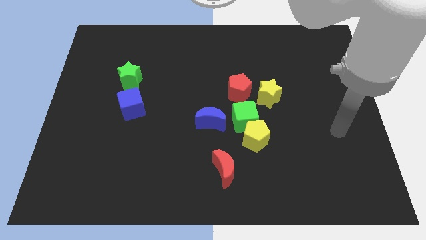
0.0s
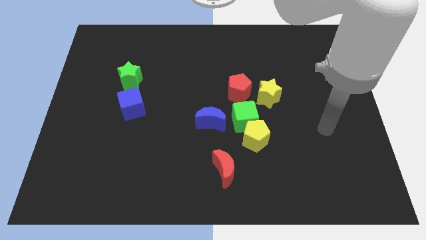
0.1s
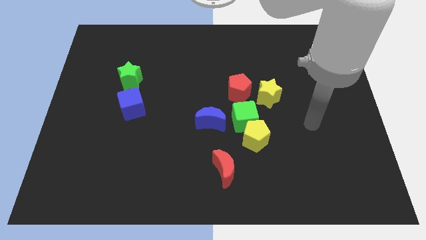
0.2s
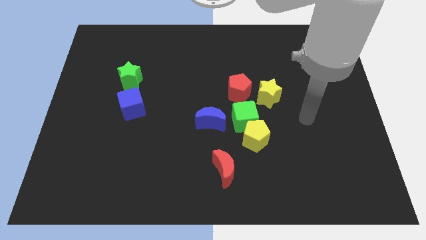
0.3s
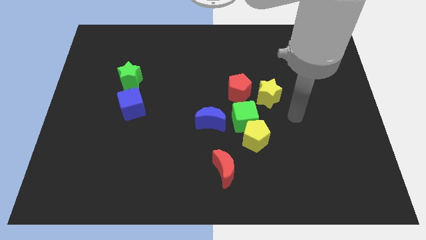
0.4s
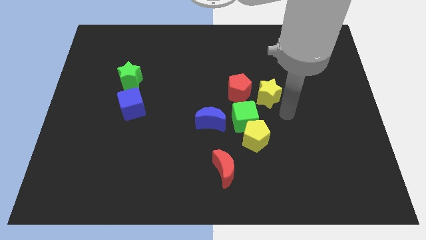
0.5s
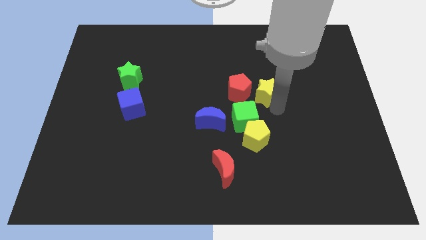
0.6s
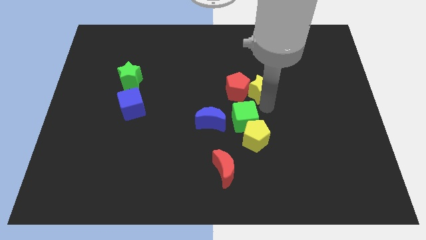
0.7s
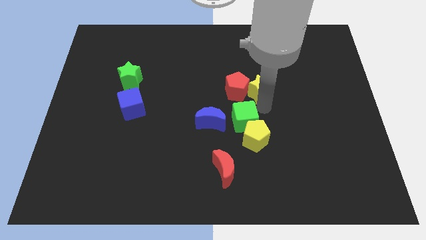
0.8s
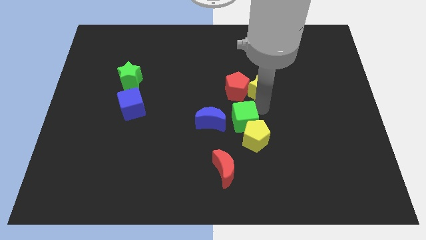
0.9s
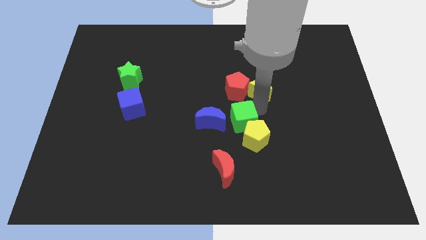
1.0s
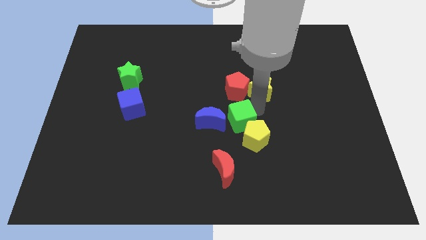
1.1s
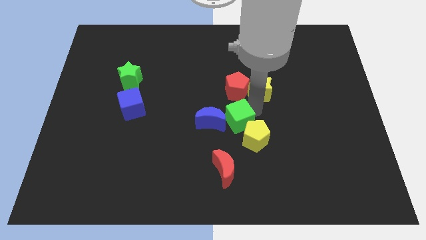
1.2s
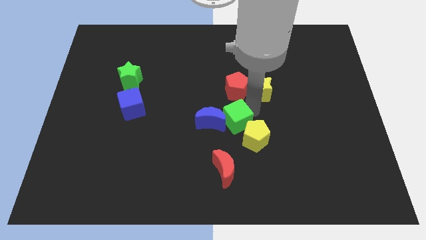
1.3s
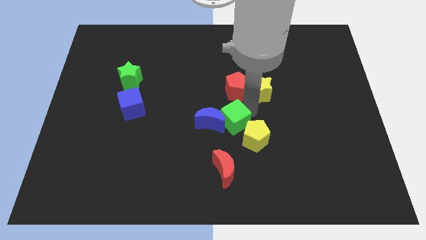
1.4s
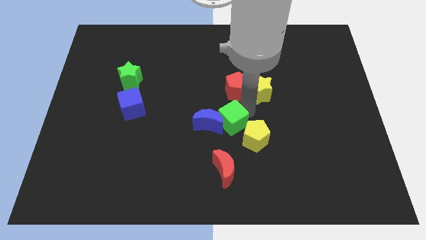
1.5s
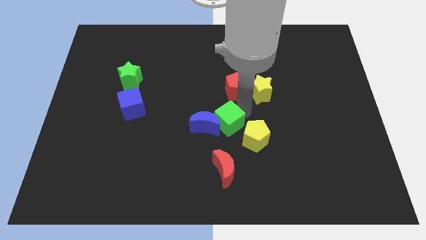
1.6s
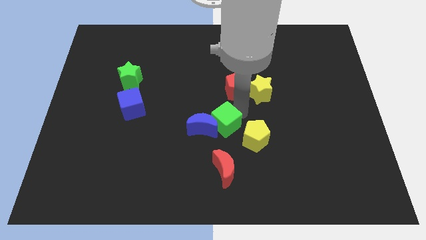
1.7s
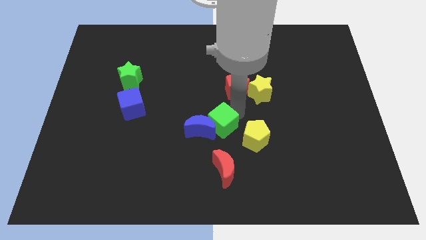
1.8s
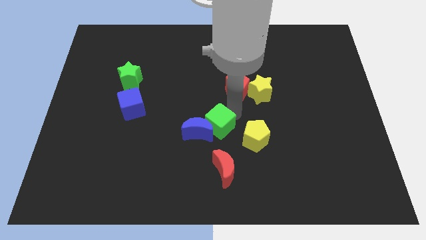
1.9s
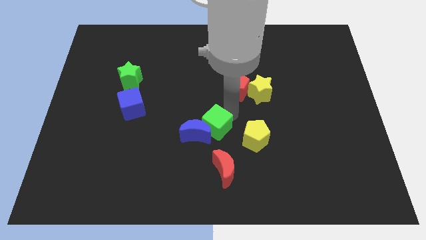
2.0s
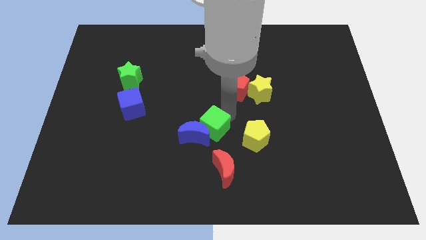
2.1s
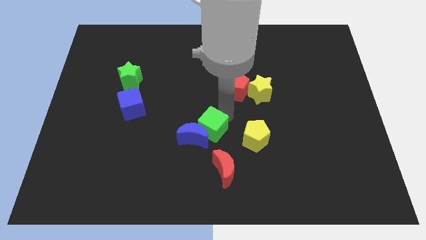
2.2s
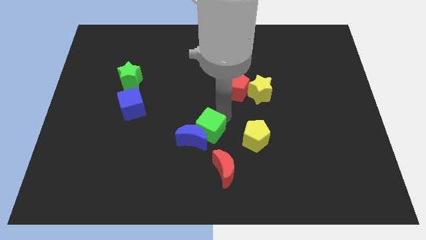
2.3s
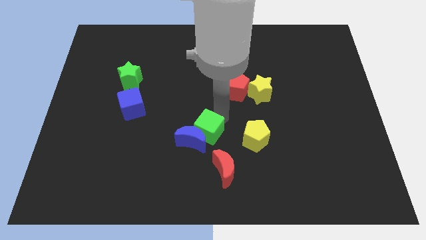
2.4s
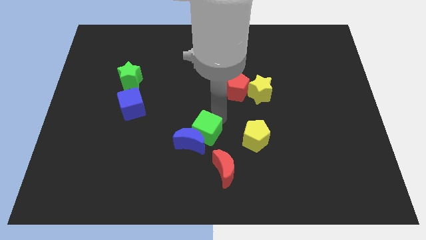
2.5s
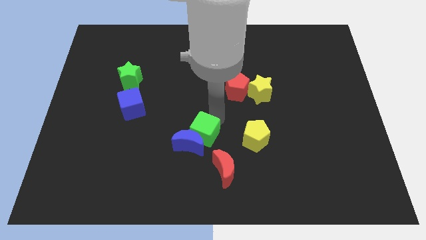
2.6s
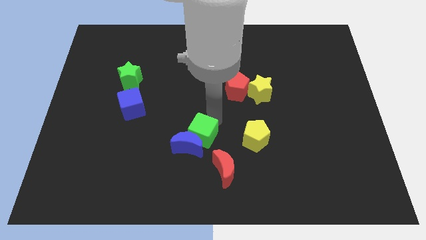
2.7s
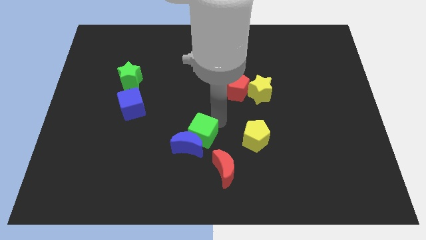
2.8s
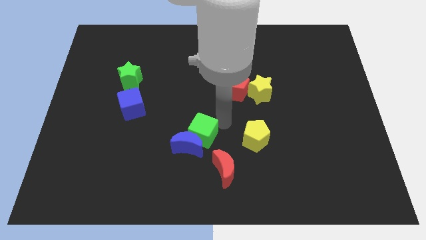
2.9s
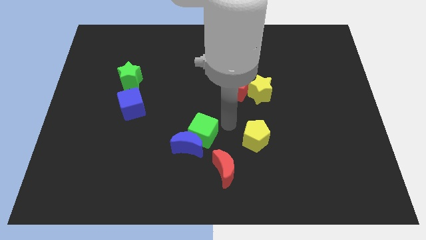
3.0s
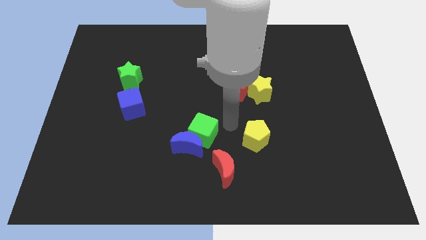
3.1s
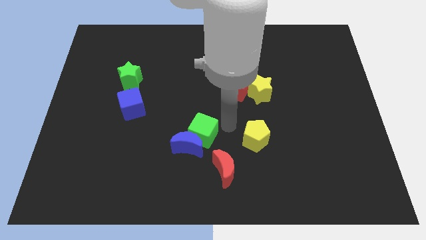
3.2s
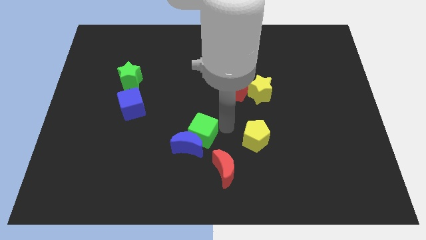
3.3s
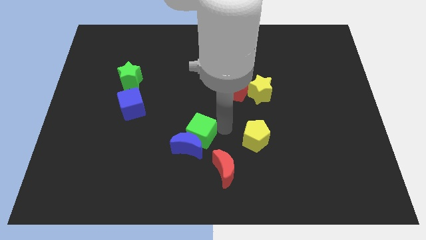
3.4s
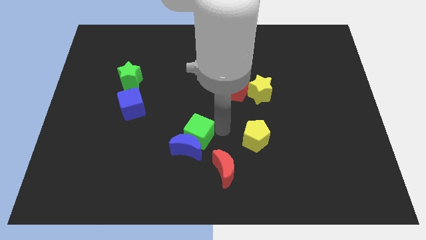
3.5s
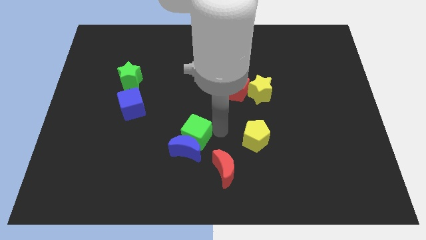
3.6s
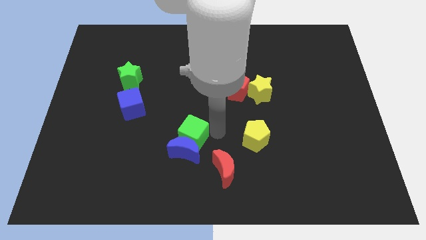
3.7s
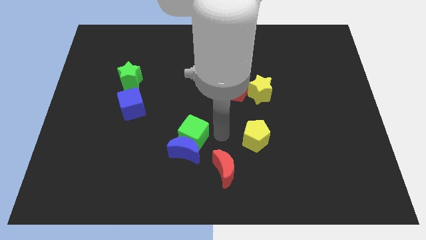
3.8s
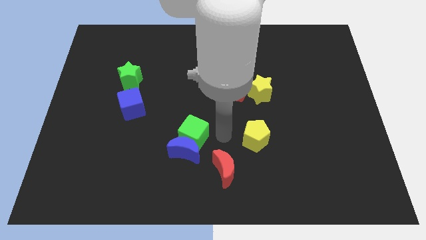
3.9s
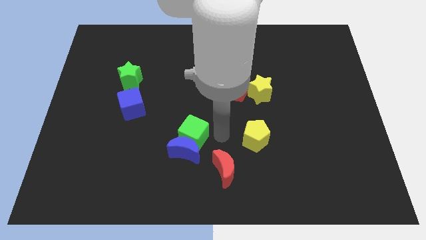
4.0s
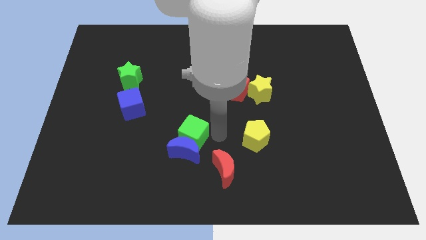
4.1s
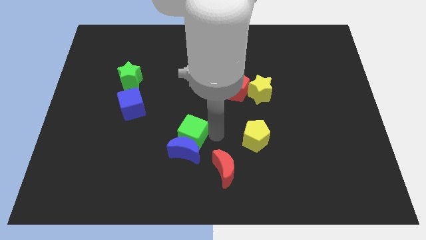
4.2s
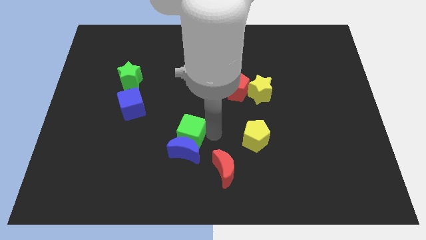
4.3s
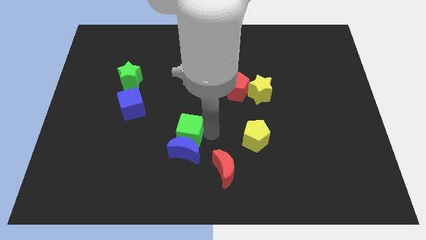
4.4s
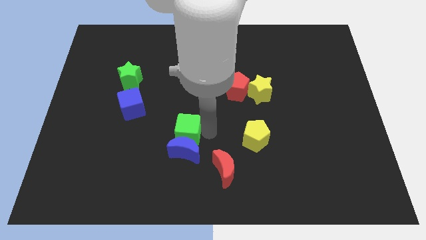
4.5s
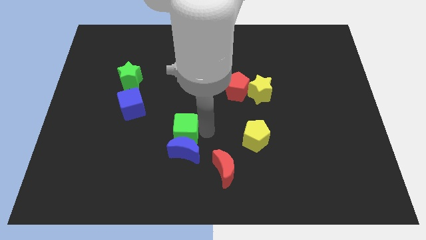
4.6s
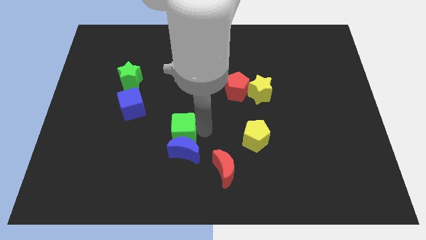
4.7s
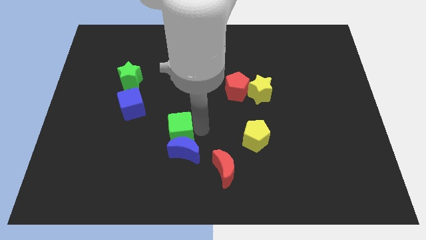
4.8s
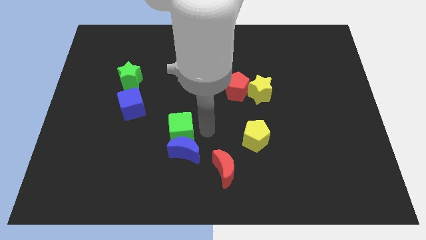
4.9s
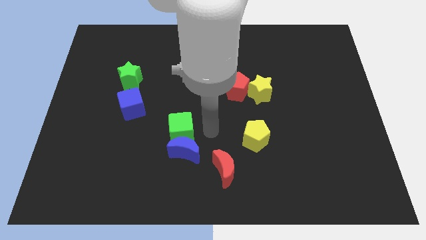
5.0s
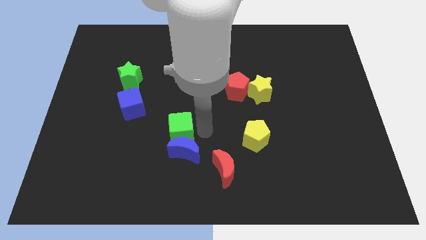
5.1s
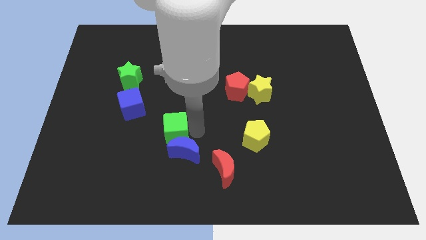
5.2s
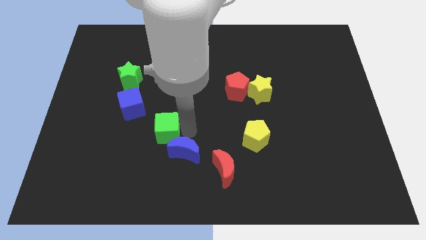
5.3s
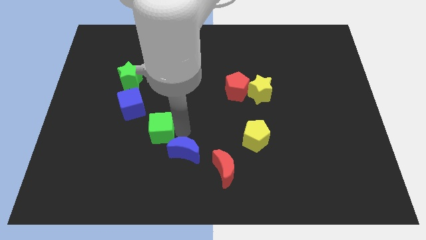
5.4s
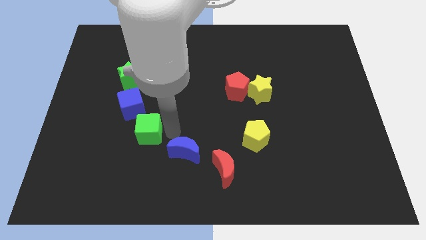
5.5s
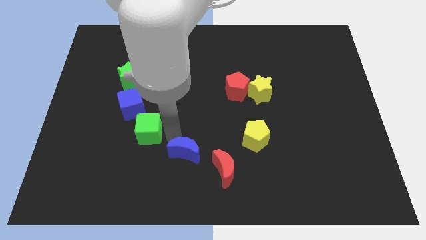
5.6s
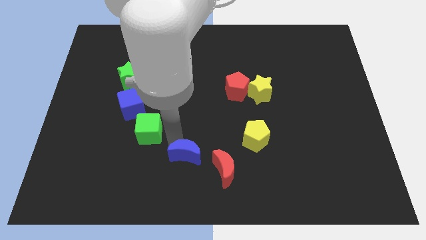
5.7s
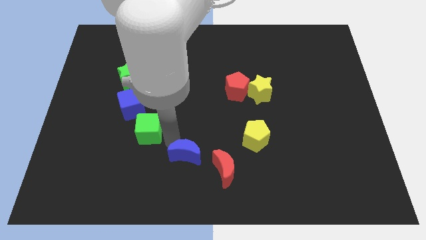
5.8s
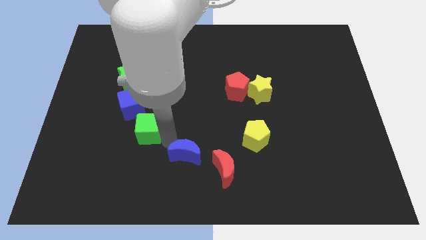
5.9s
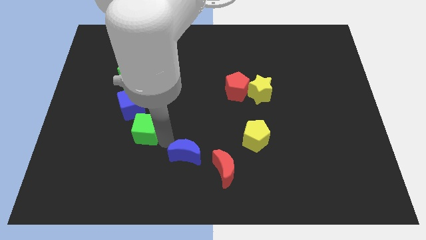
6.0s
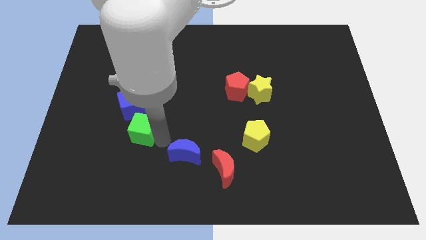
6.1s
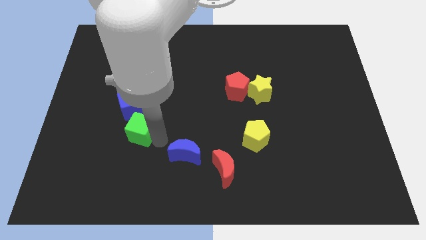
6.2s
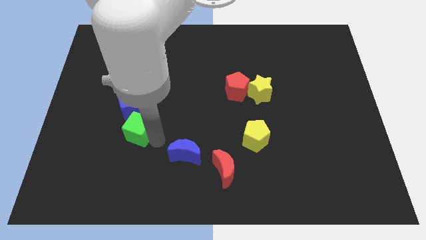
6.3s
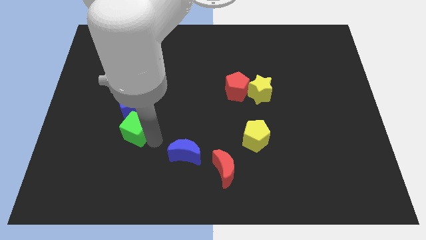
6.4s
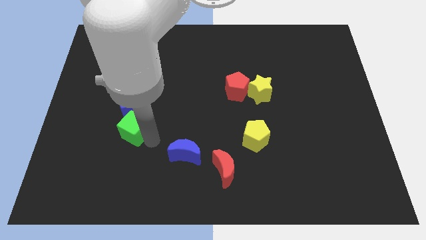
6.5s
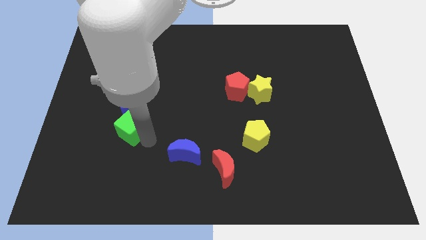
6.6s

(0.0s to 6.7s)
move the green cube below the green star
